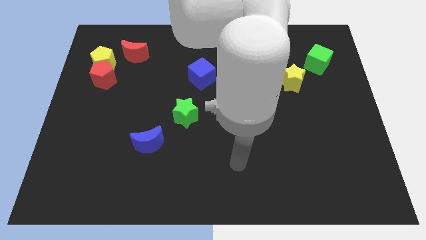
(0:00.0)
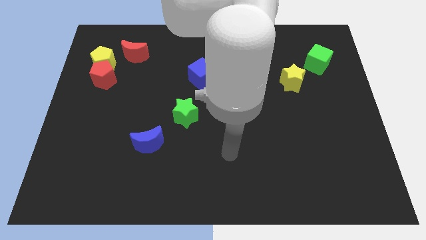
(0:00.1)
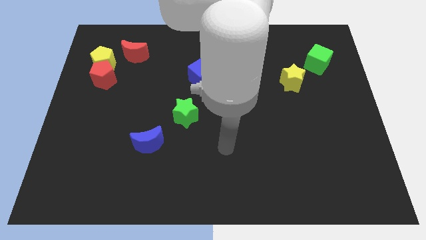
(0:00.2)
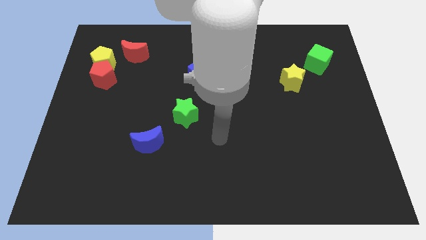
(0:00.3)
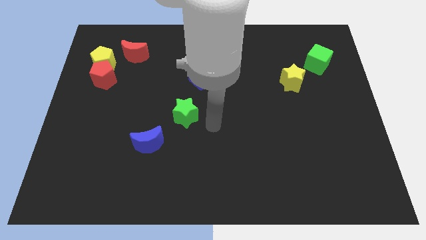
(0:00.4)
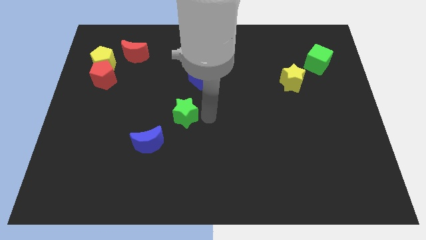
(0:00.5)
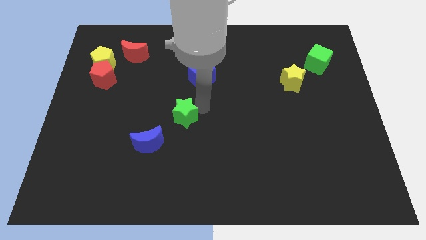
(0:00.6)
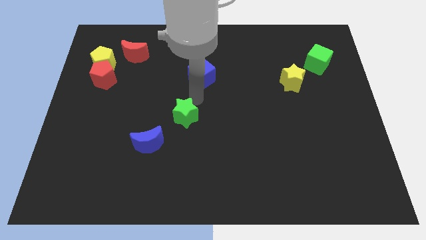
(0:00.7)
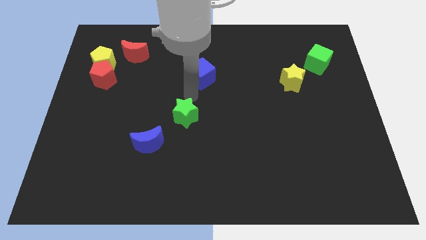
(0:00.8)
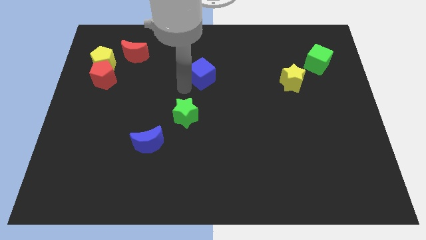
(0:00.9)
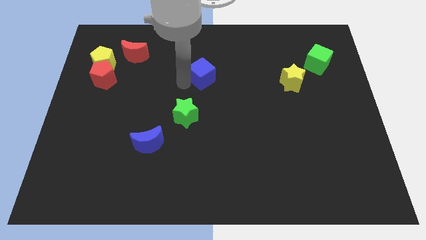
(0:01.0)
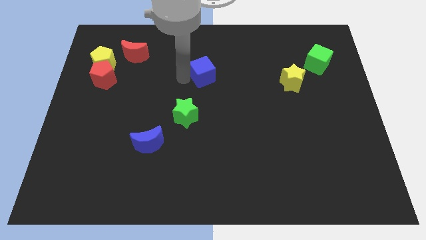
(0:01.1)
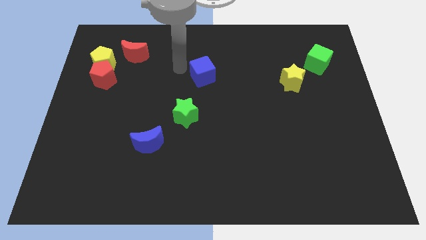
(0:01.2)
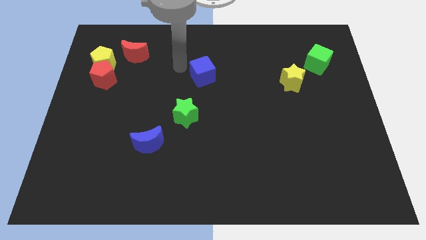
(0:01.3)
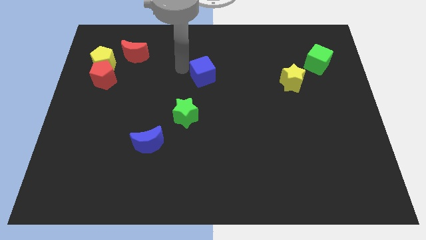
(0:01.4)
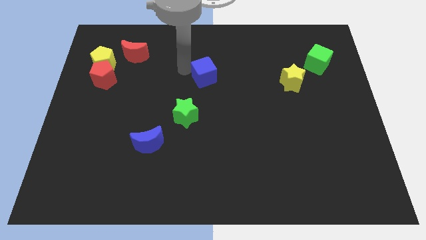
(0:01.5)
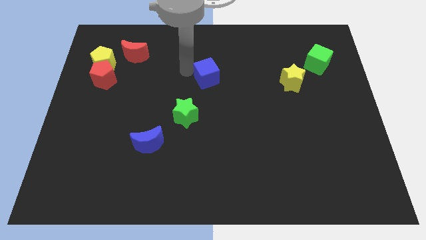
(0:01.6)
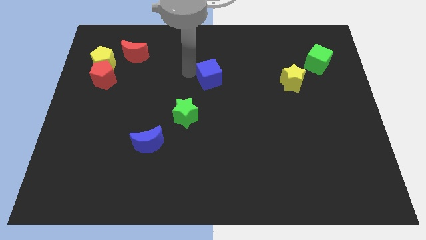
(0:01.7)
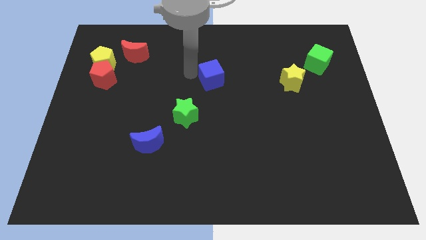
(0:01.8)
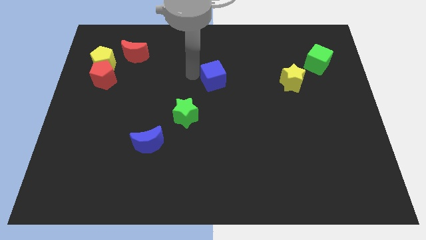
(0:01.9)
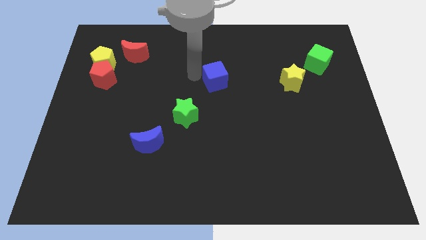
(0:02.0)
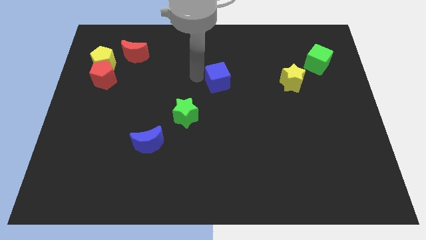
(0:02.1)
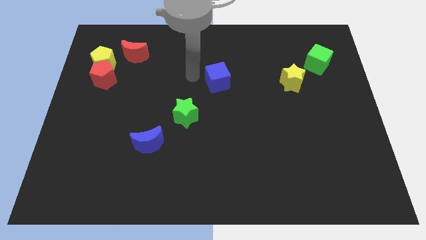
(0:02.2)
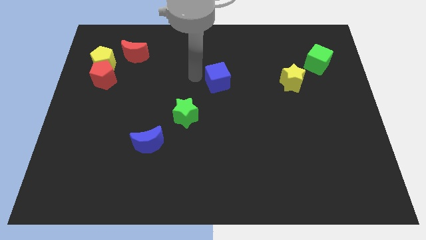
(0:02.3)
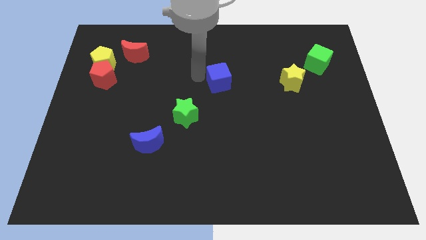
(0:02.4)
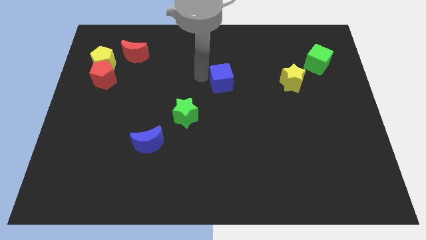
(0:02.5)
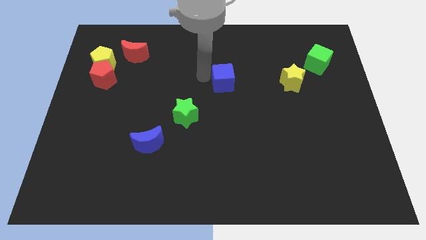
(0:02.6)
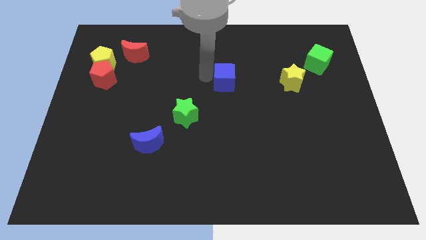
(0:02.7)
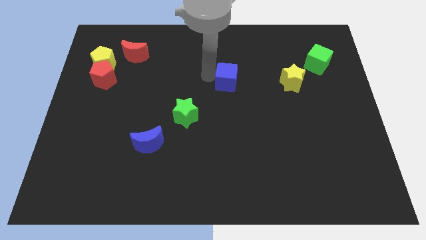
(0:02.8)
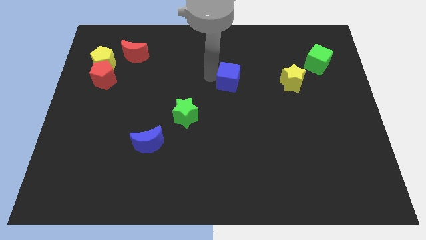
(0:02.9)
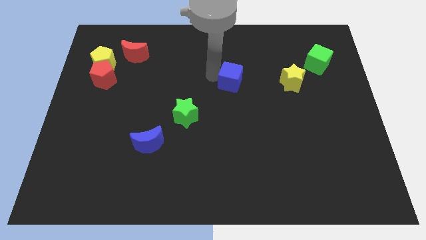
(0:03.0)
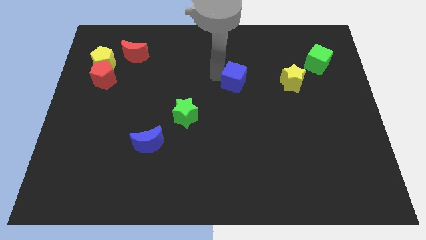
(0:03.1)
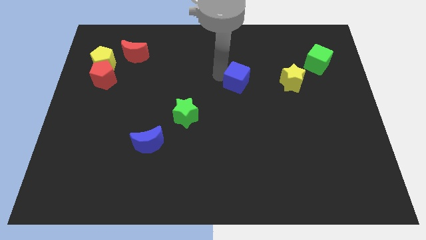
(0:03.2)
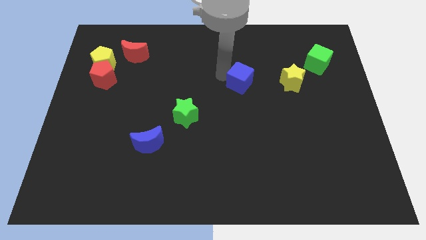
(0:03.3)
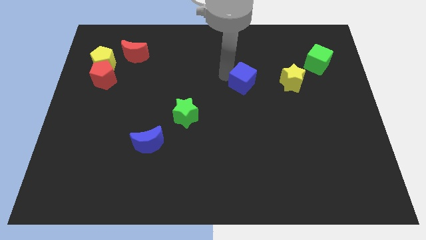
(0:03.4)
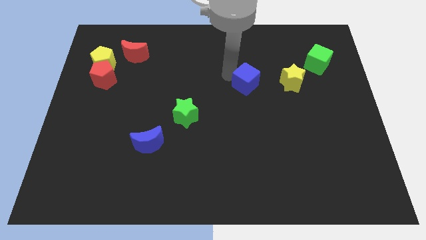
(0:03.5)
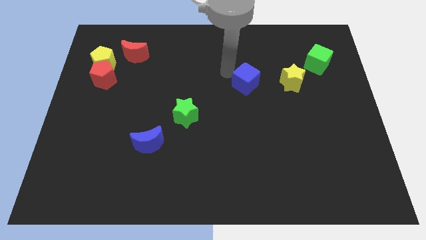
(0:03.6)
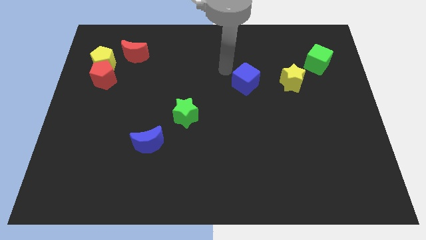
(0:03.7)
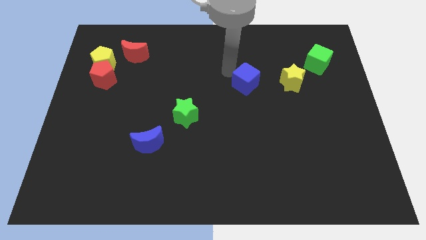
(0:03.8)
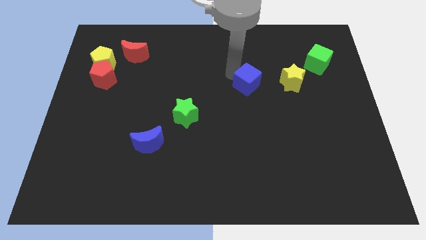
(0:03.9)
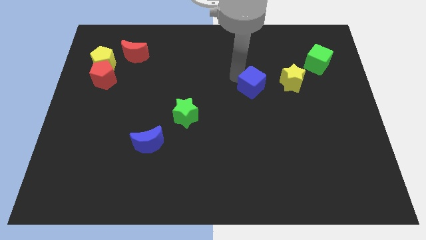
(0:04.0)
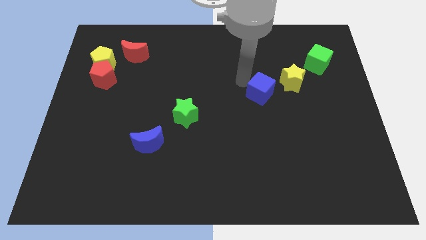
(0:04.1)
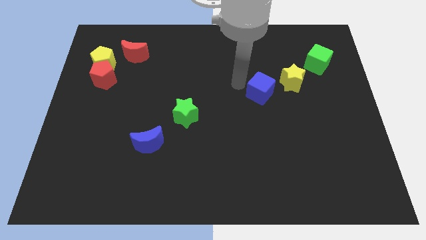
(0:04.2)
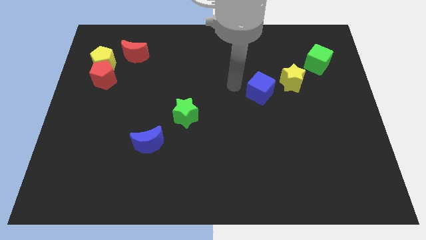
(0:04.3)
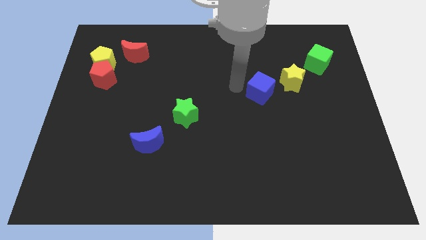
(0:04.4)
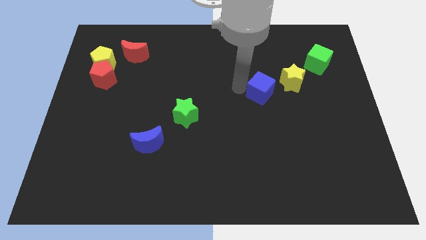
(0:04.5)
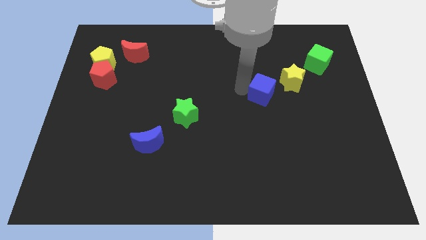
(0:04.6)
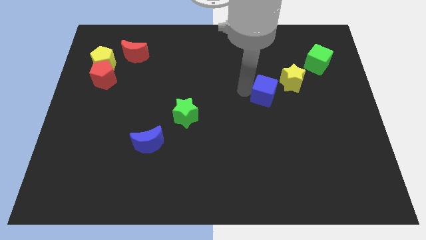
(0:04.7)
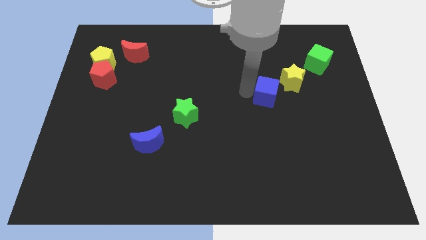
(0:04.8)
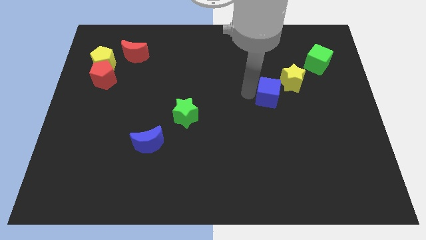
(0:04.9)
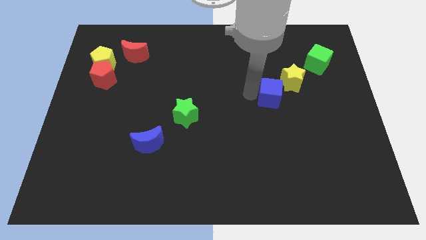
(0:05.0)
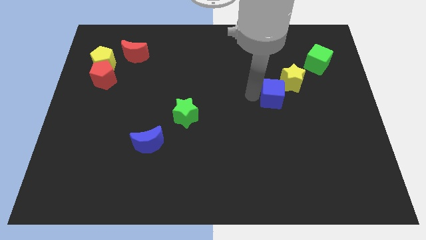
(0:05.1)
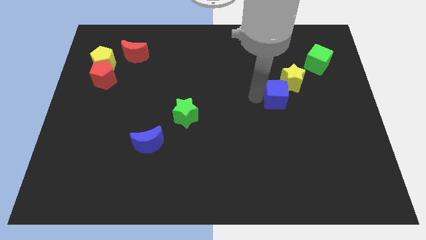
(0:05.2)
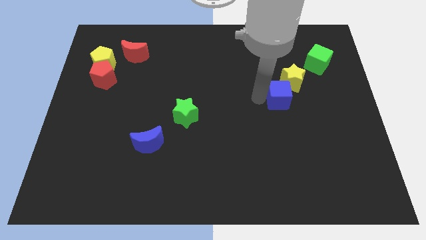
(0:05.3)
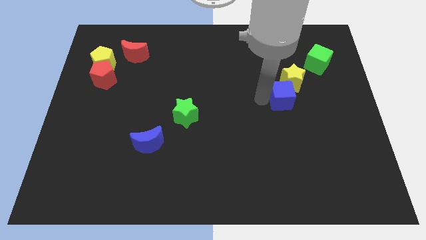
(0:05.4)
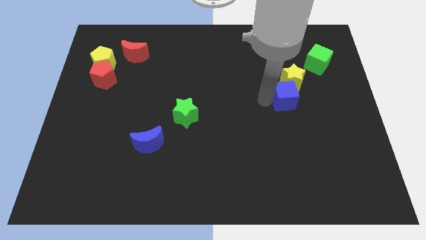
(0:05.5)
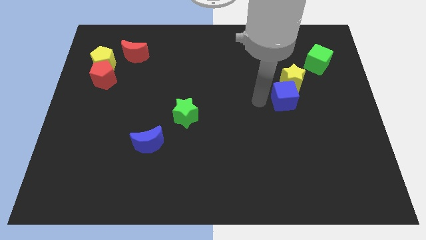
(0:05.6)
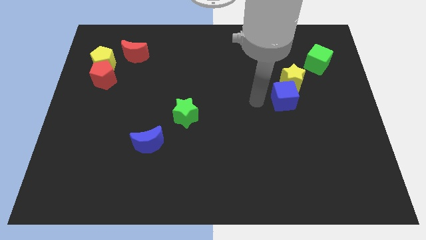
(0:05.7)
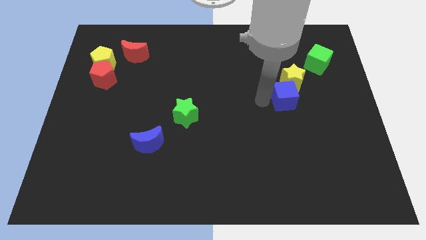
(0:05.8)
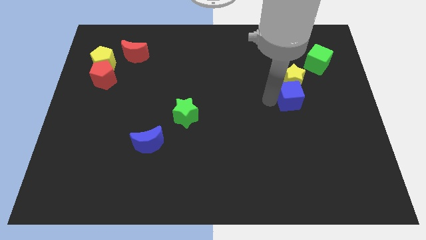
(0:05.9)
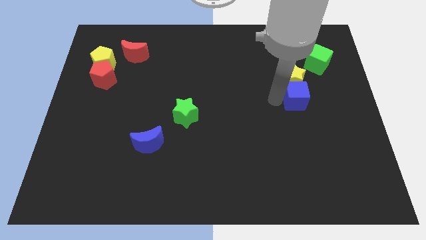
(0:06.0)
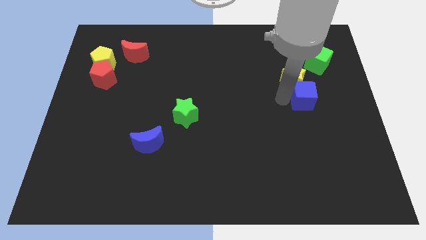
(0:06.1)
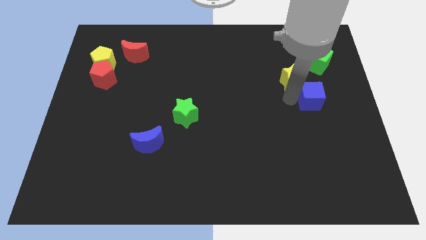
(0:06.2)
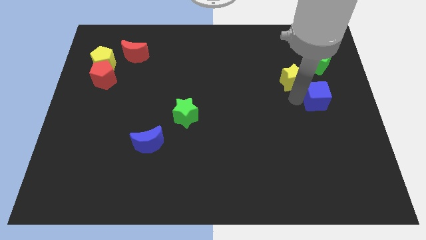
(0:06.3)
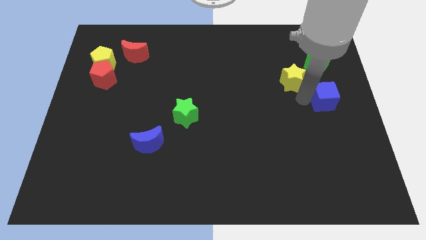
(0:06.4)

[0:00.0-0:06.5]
put the blue cube to the right side of the board
